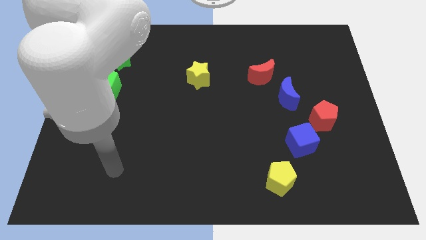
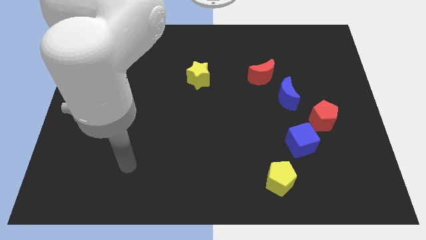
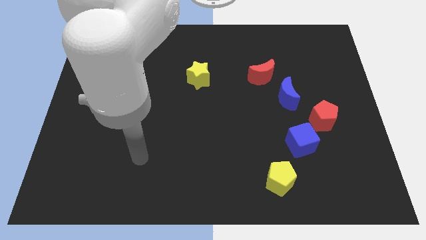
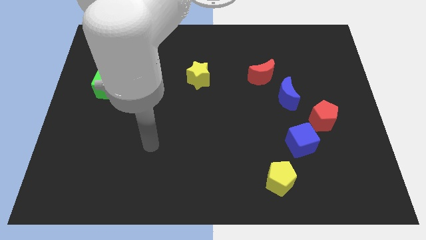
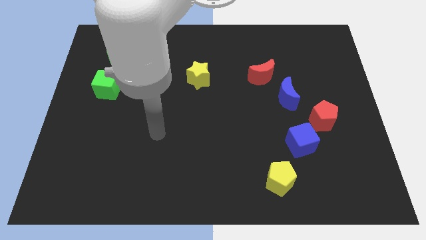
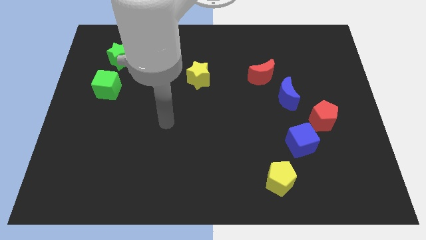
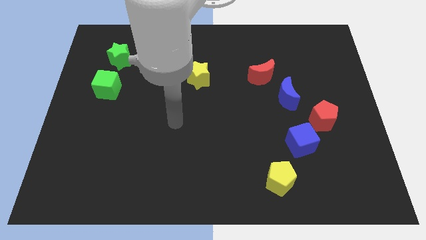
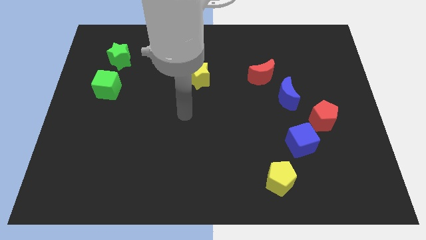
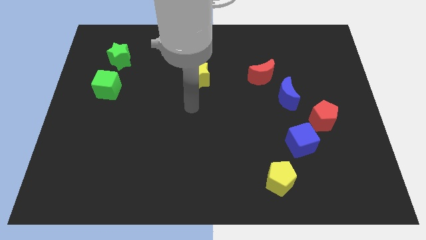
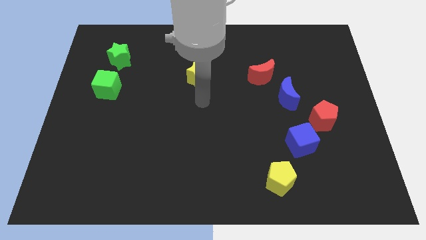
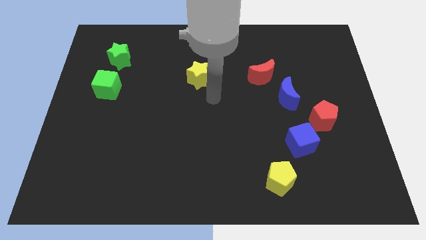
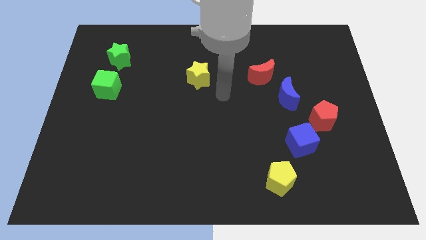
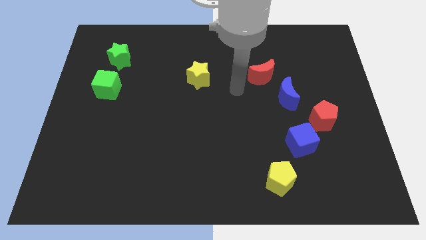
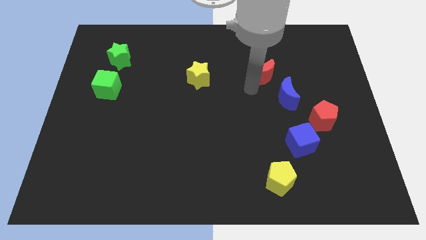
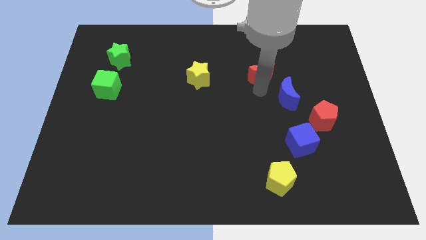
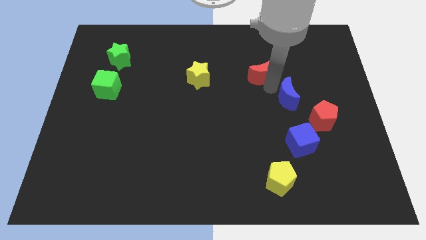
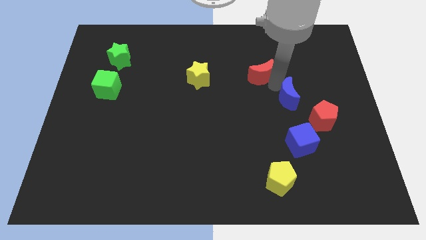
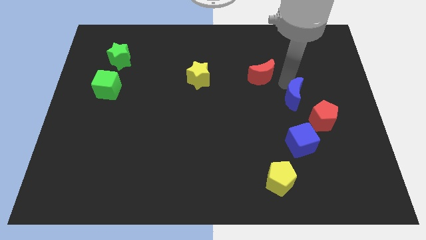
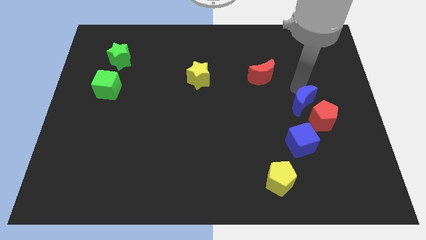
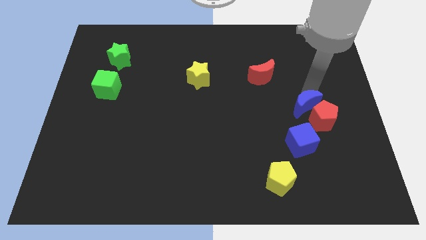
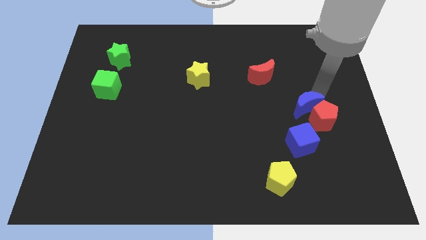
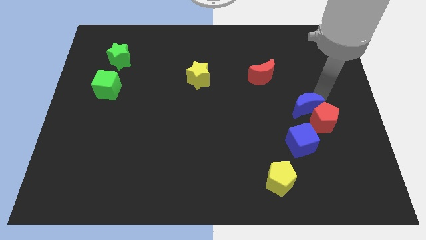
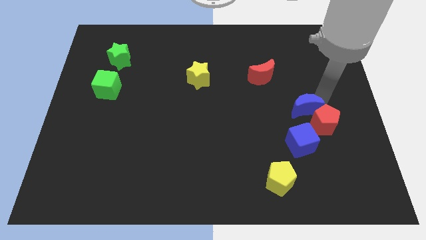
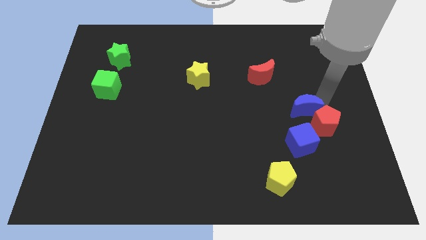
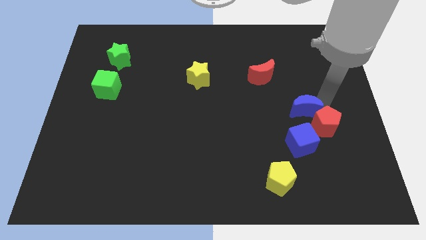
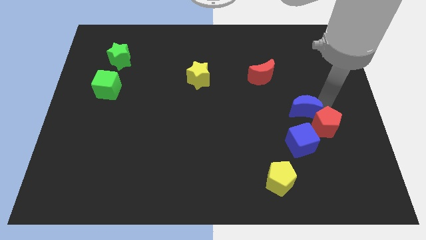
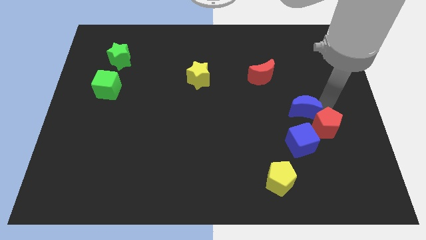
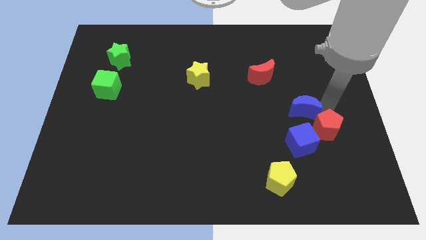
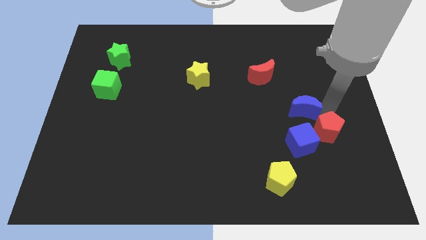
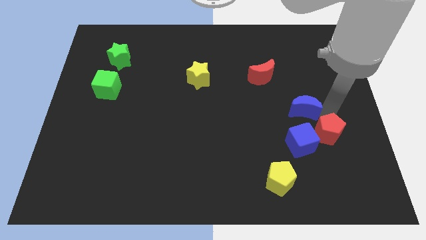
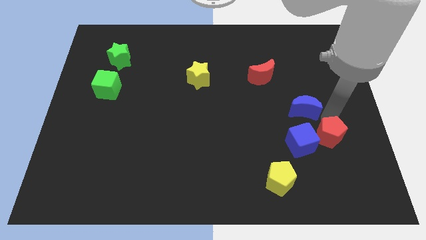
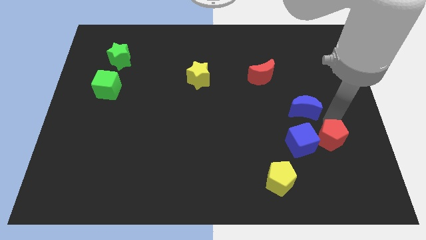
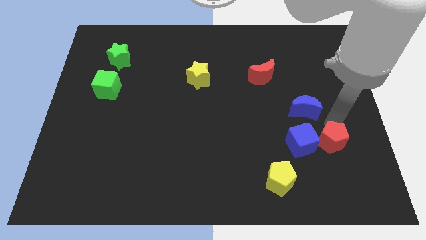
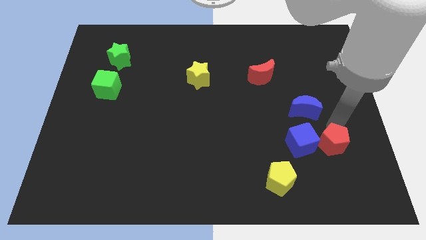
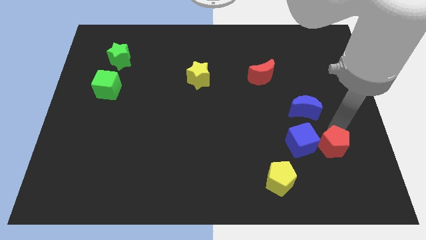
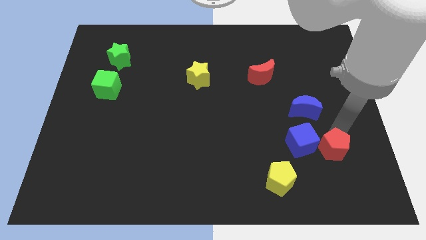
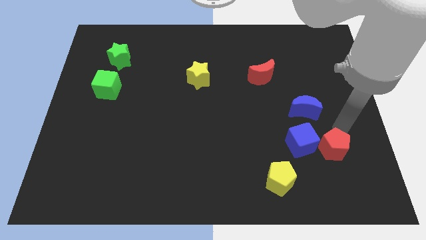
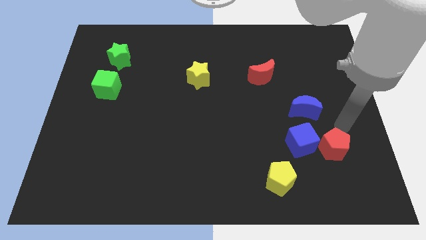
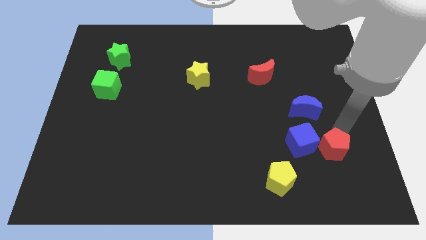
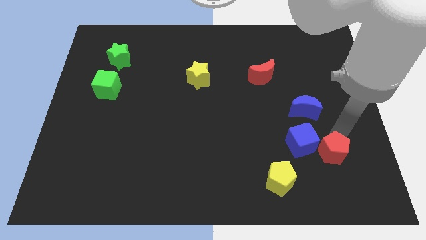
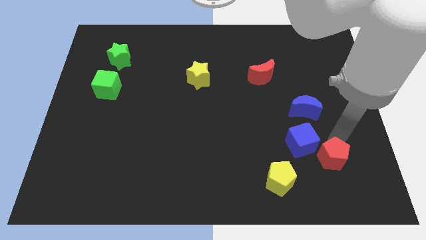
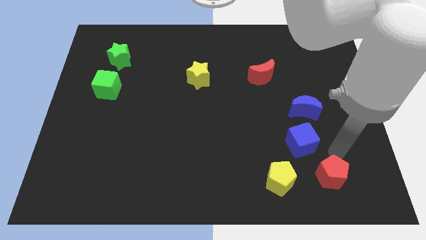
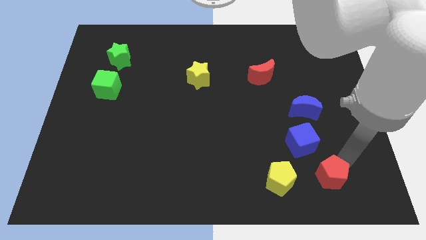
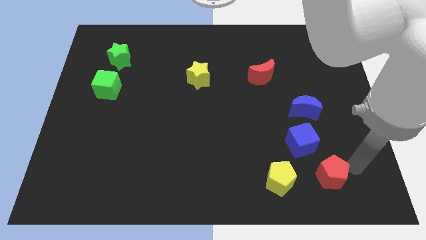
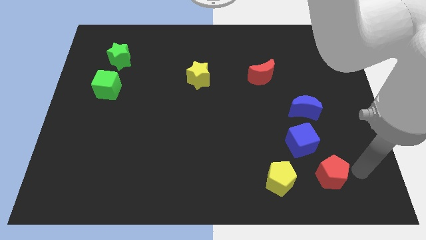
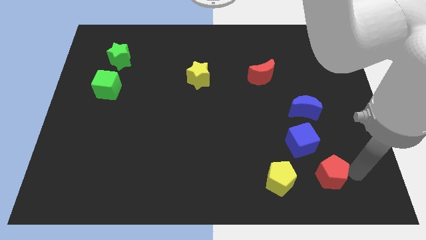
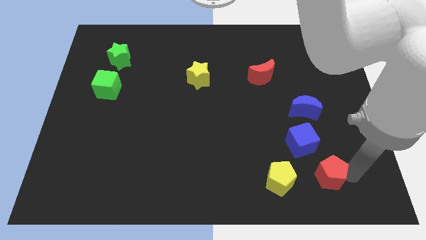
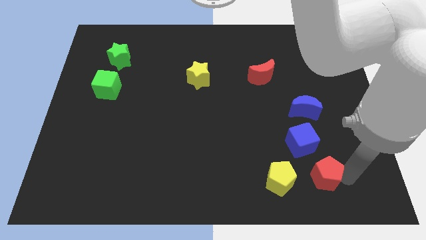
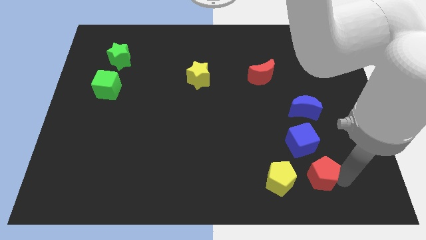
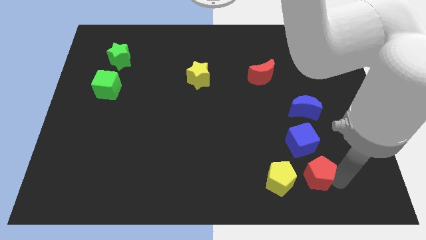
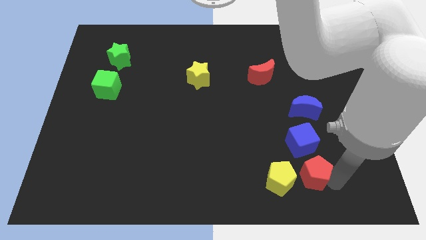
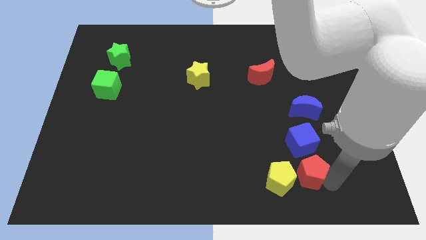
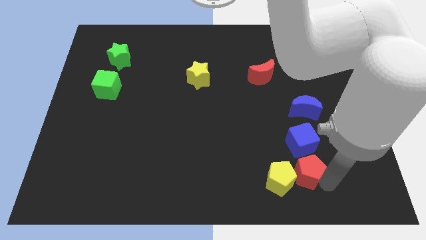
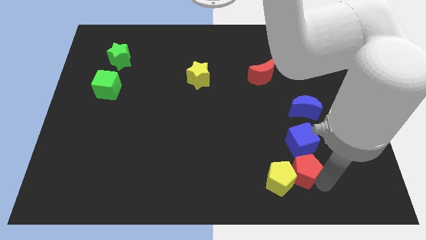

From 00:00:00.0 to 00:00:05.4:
push the red pentagon to the yellow pentagon

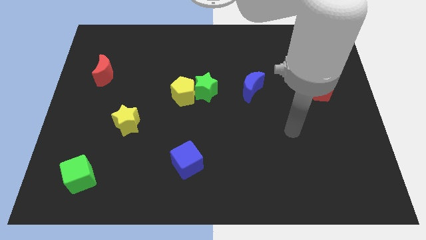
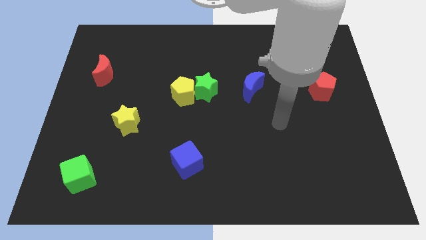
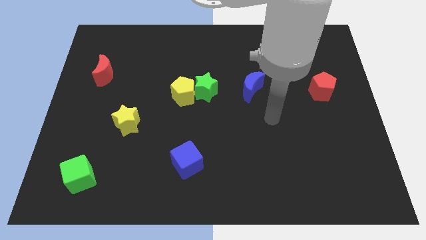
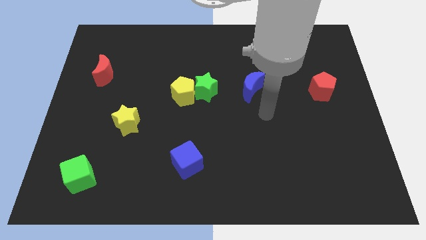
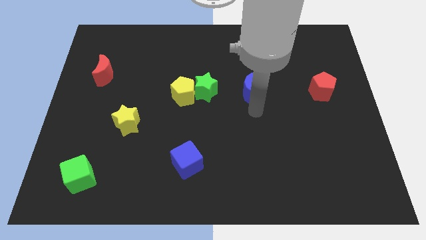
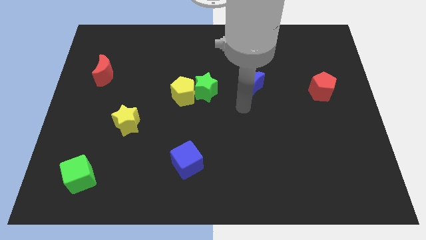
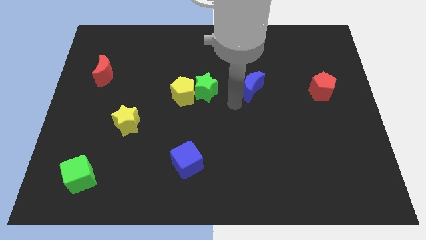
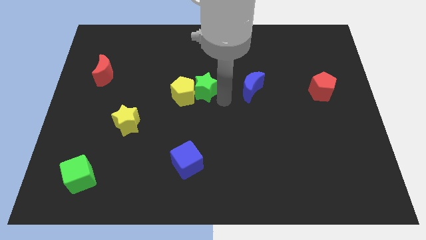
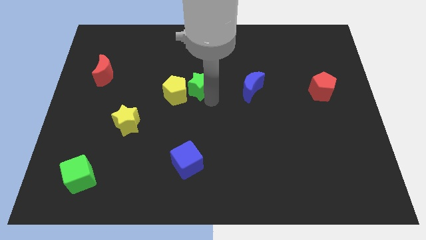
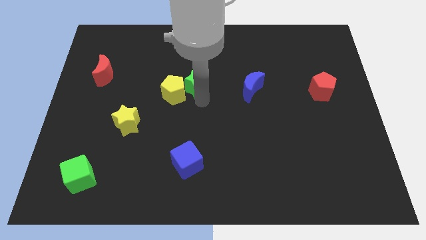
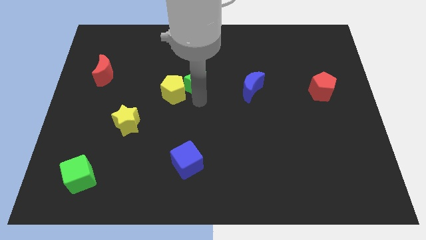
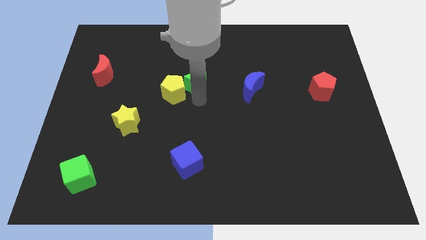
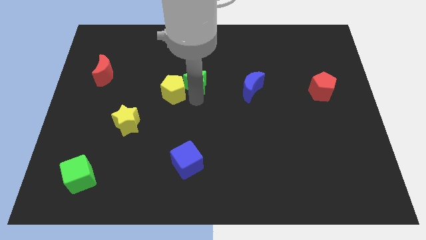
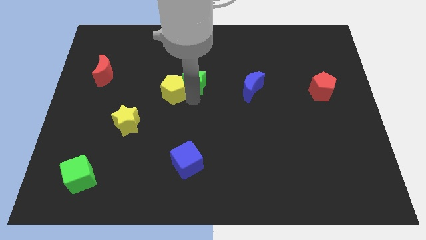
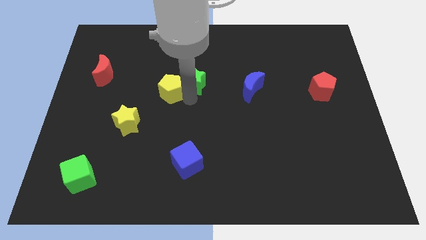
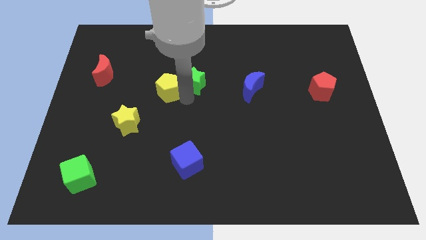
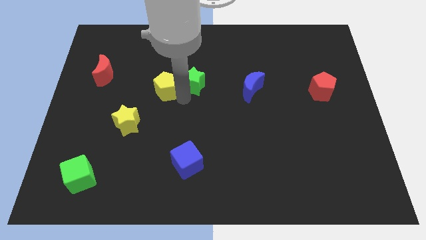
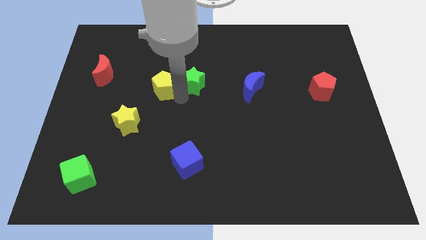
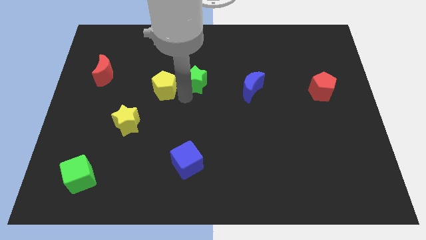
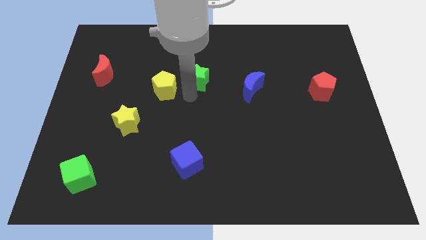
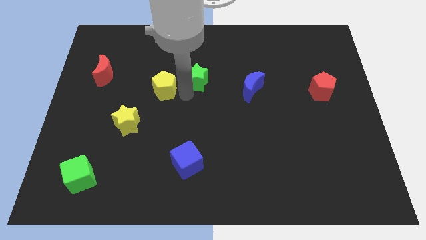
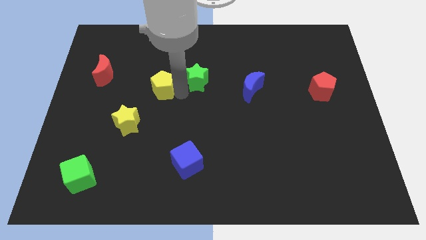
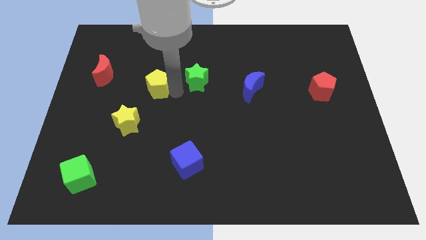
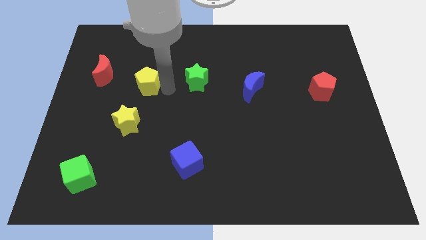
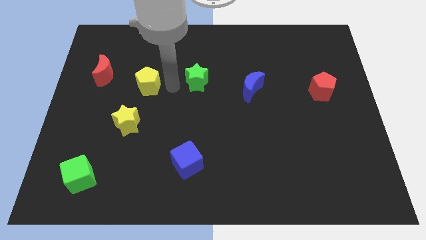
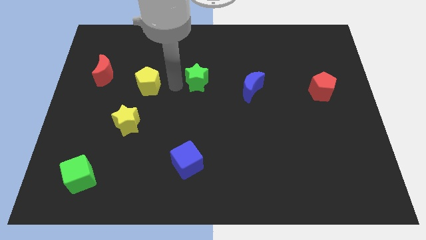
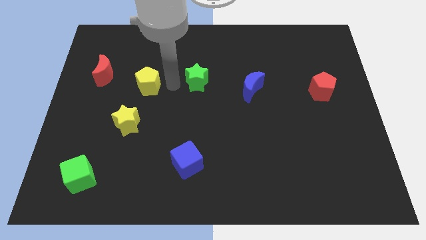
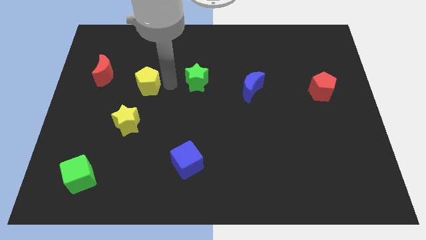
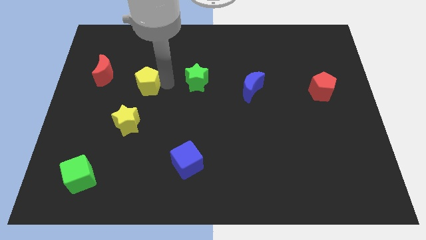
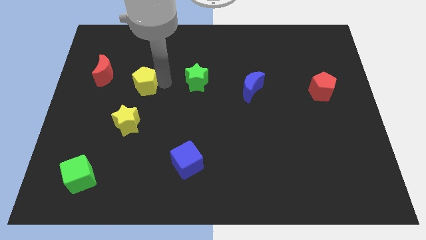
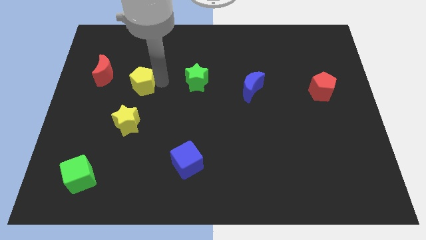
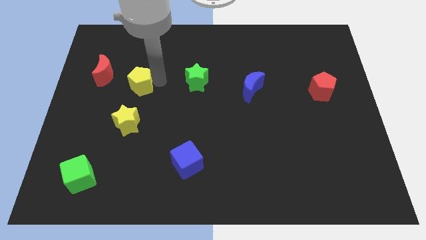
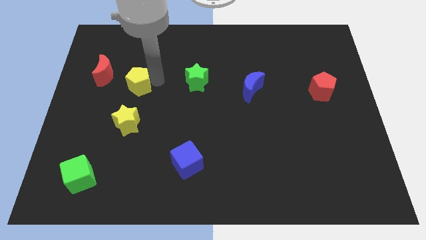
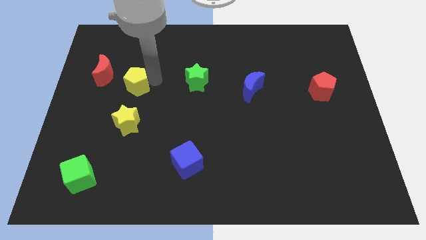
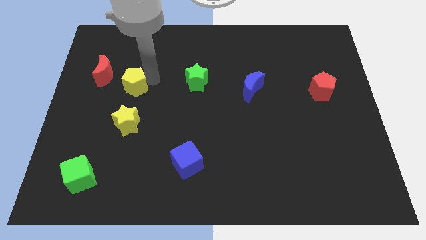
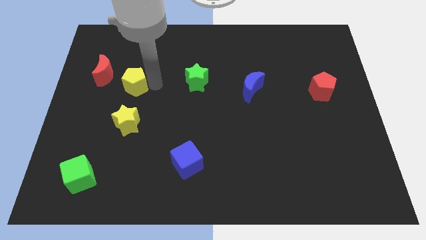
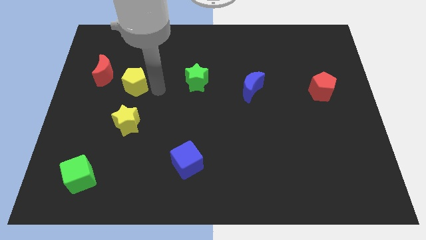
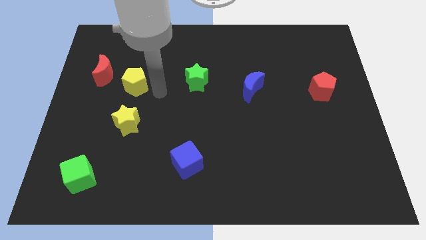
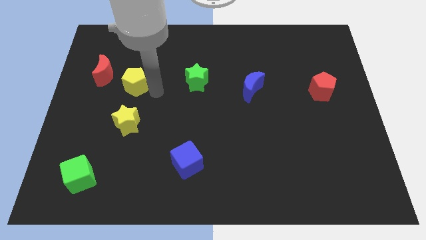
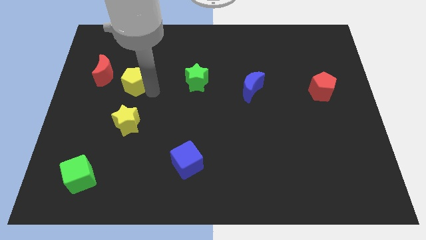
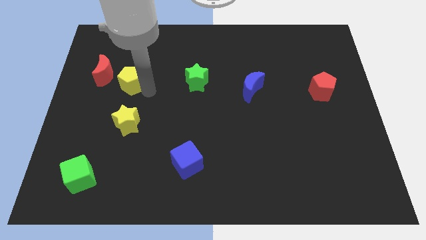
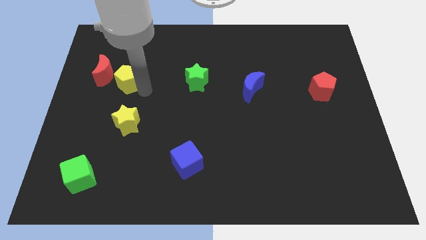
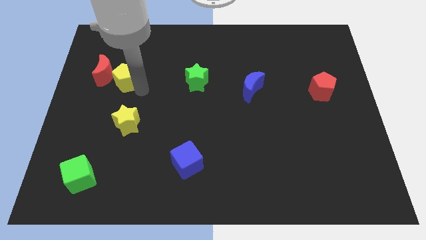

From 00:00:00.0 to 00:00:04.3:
slide the yellow pentagon to the red moon
